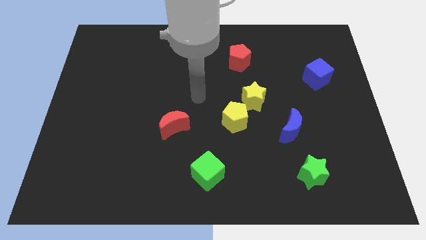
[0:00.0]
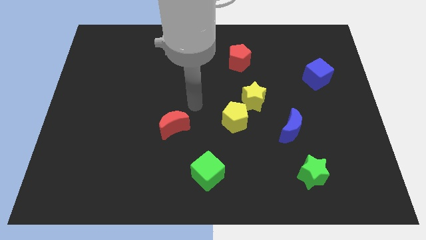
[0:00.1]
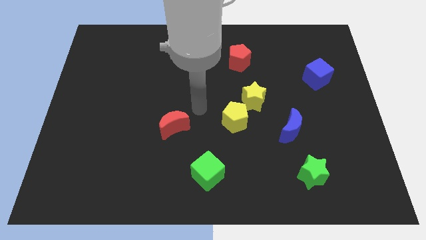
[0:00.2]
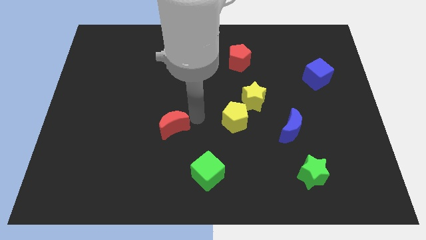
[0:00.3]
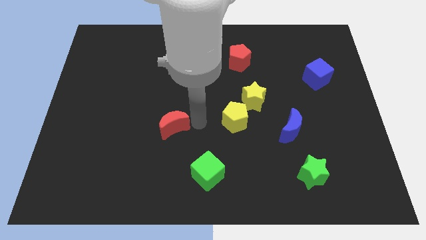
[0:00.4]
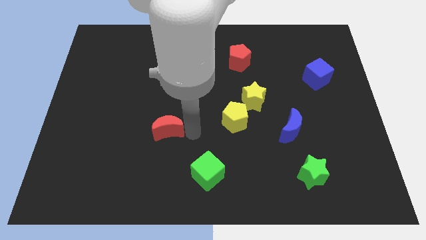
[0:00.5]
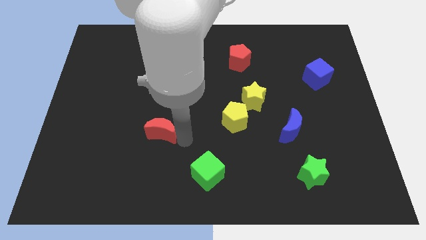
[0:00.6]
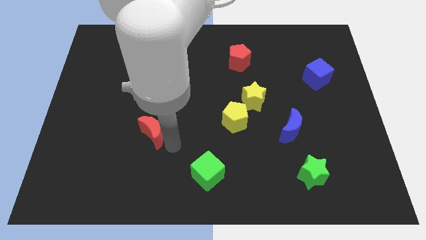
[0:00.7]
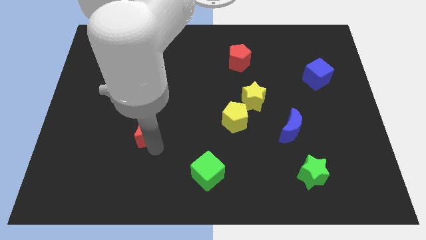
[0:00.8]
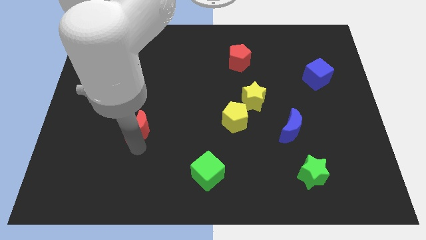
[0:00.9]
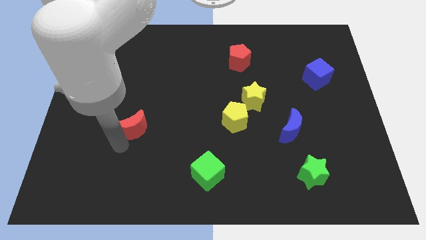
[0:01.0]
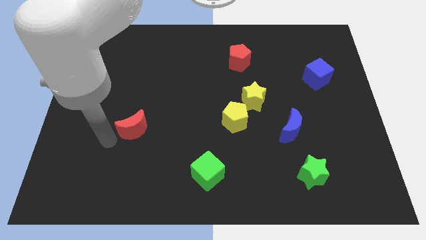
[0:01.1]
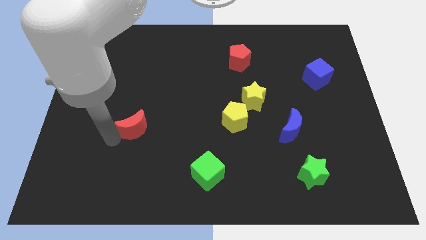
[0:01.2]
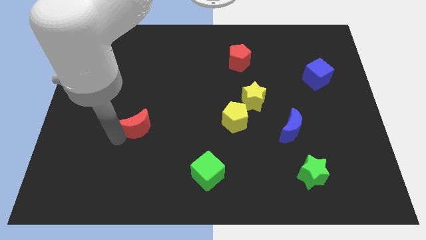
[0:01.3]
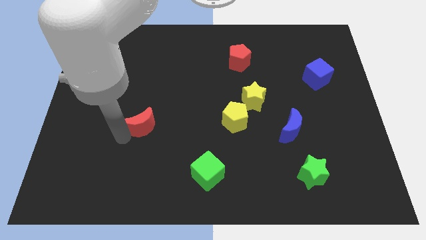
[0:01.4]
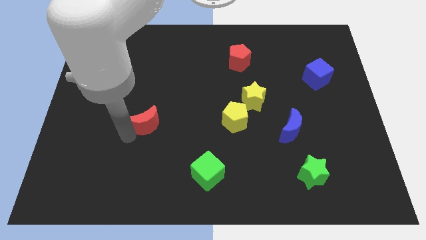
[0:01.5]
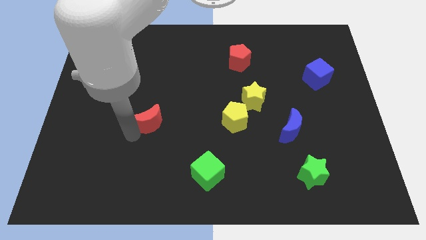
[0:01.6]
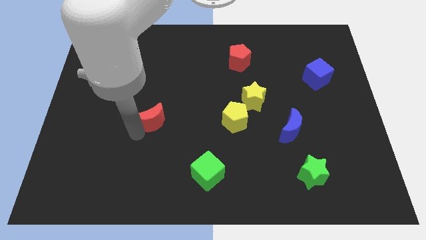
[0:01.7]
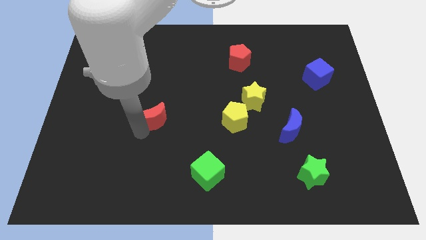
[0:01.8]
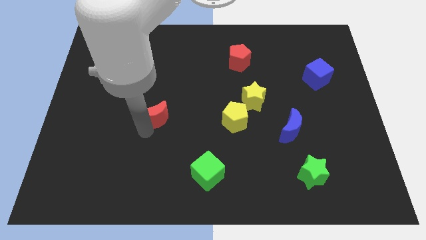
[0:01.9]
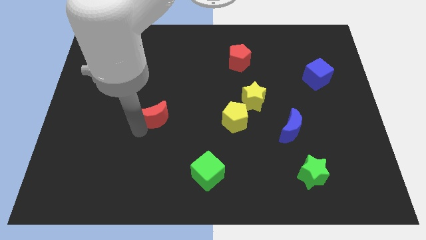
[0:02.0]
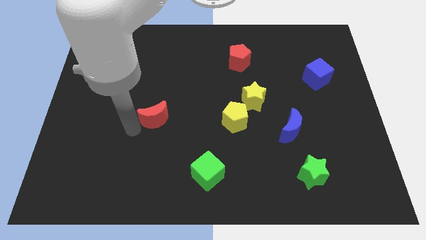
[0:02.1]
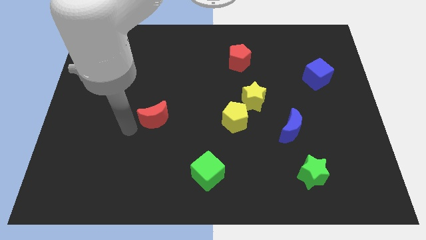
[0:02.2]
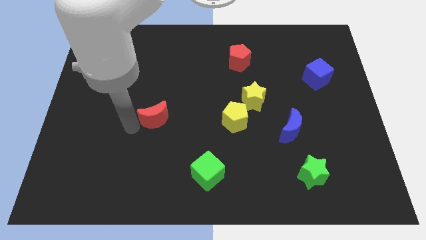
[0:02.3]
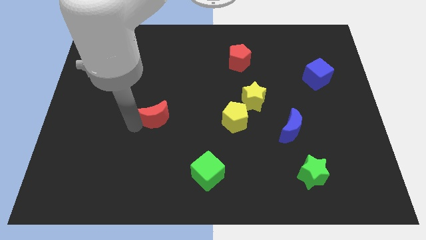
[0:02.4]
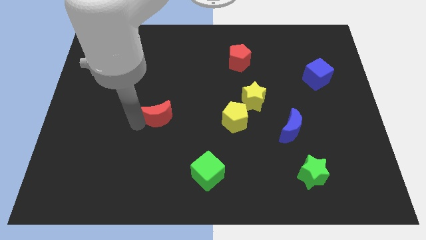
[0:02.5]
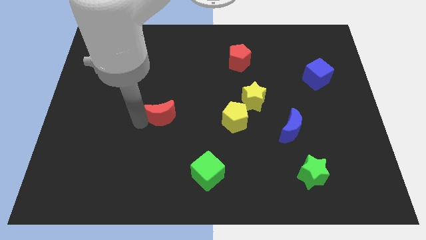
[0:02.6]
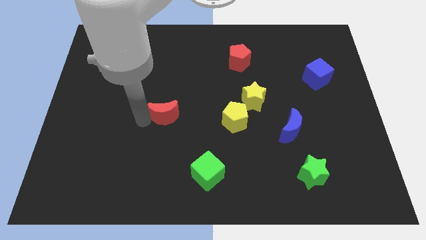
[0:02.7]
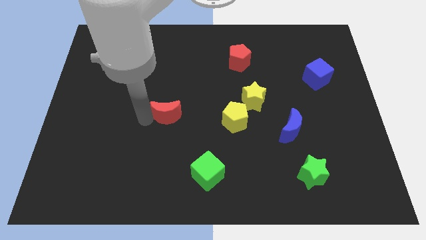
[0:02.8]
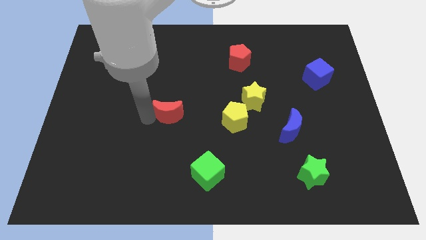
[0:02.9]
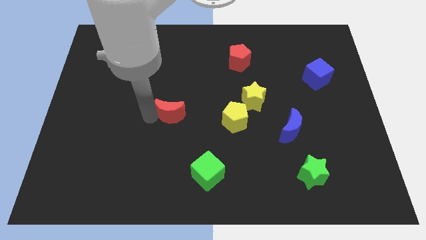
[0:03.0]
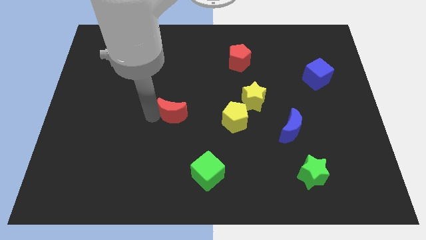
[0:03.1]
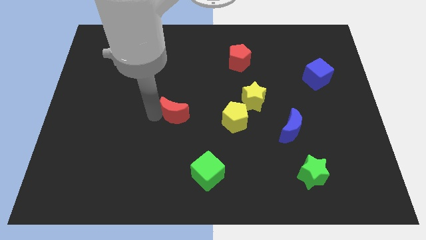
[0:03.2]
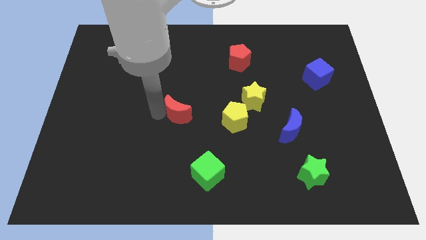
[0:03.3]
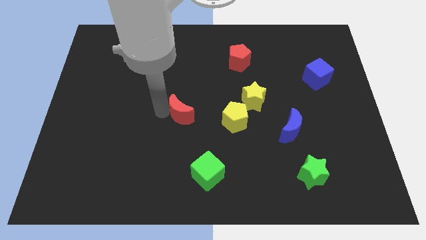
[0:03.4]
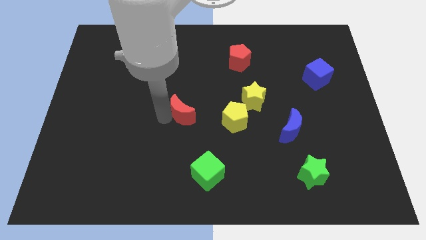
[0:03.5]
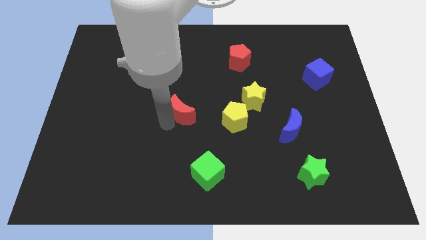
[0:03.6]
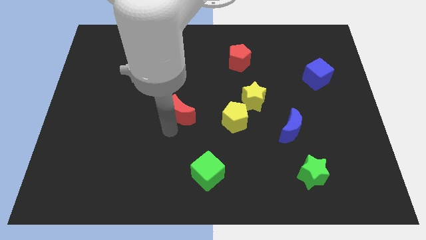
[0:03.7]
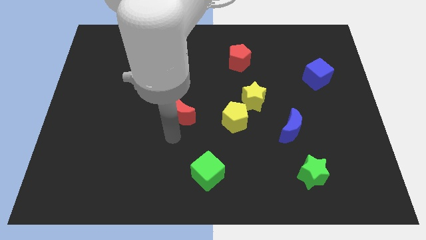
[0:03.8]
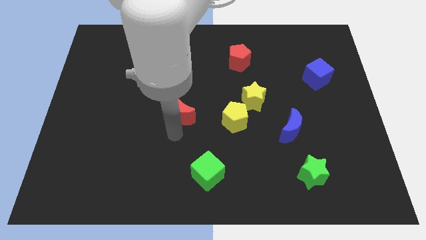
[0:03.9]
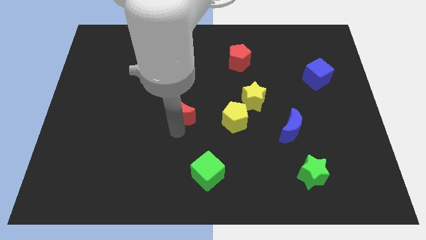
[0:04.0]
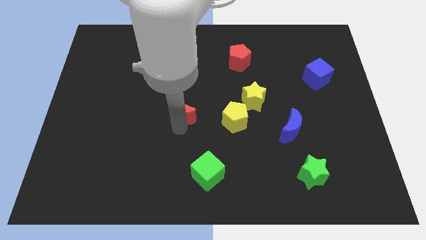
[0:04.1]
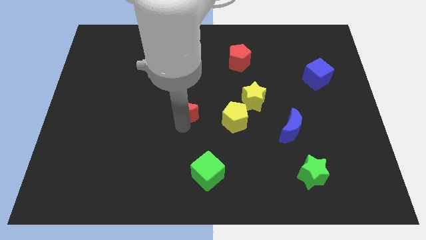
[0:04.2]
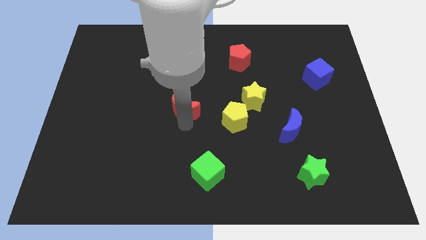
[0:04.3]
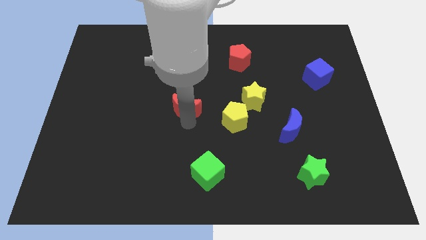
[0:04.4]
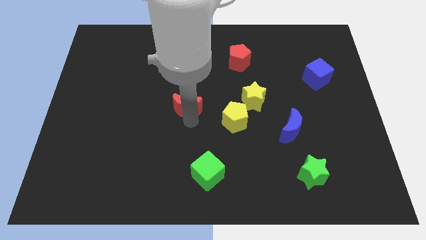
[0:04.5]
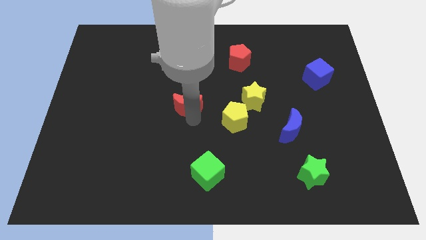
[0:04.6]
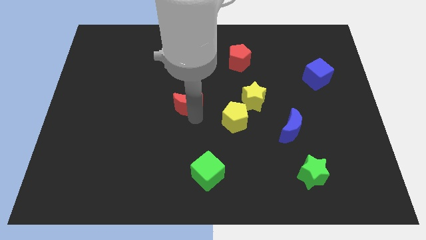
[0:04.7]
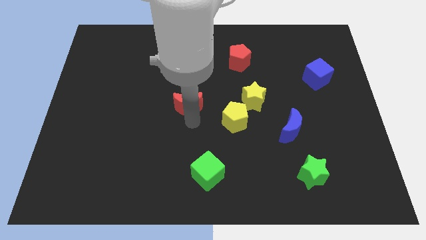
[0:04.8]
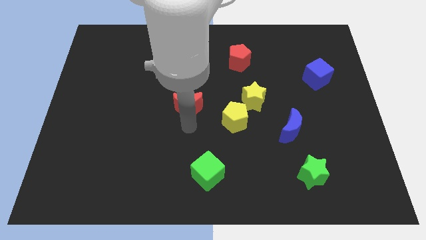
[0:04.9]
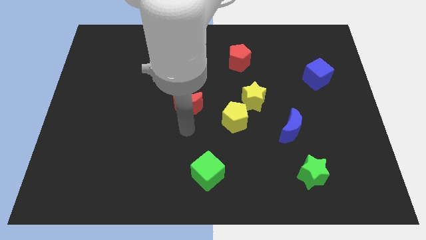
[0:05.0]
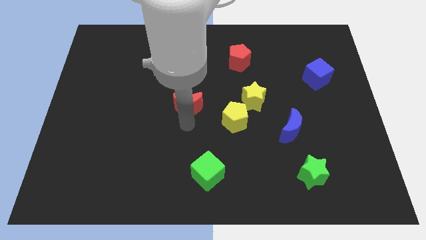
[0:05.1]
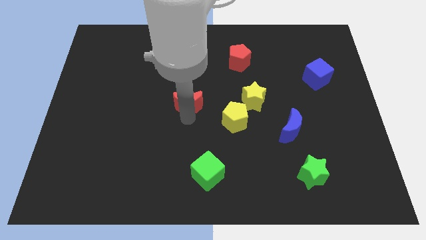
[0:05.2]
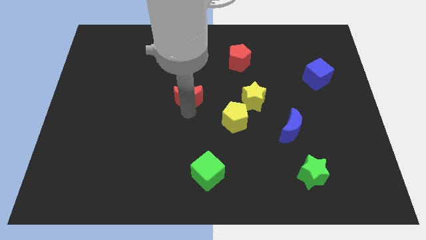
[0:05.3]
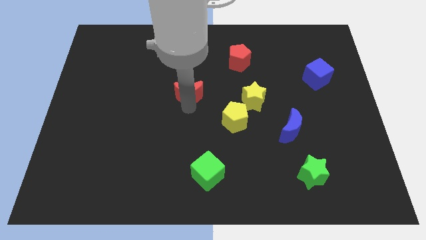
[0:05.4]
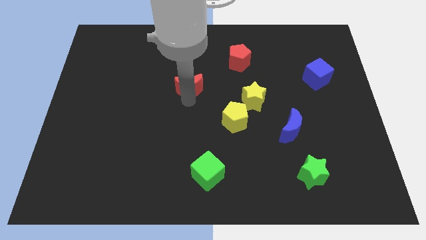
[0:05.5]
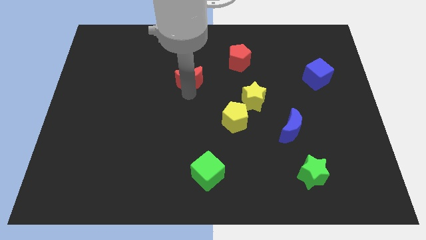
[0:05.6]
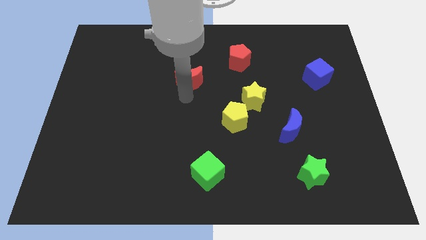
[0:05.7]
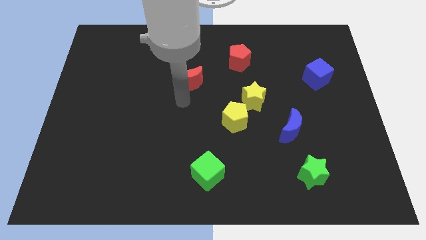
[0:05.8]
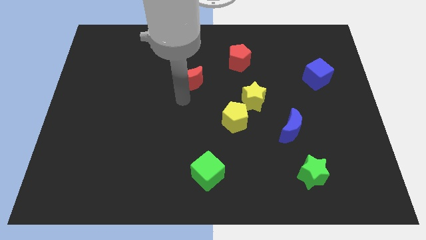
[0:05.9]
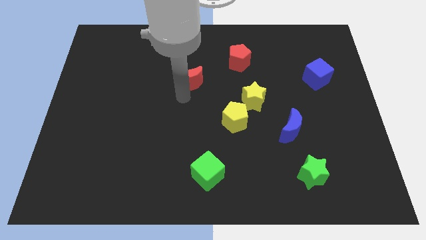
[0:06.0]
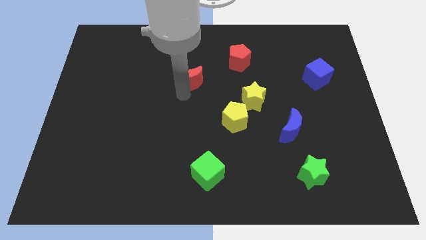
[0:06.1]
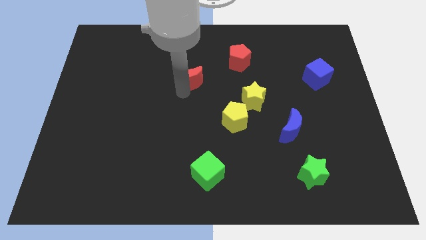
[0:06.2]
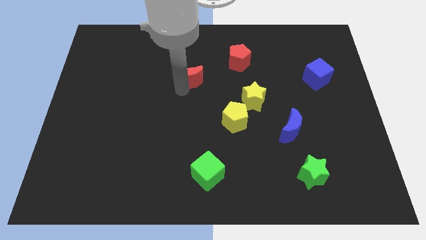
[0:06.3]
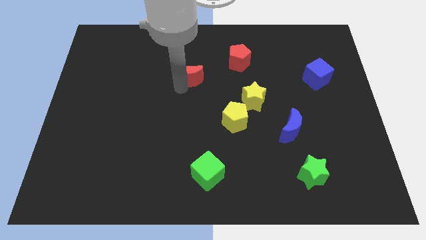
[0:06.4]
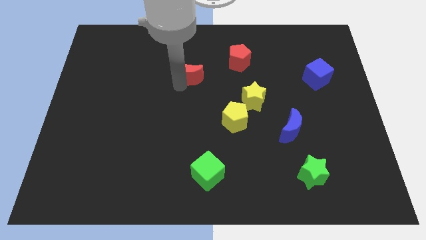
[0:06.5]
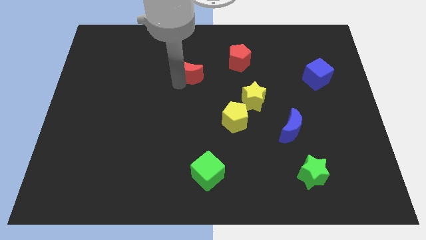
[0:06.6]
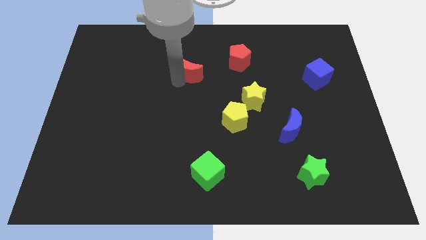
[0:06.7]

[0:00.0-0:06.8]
push the red moon just left of the red pentagon
